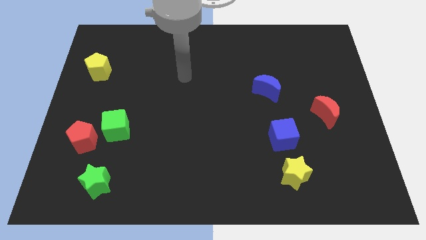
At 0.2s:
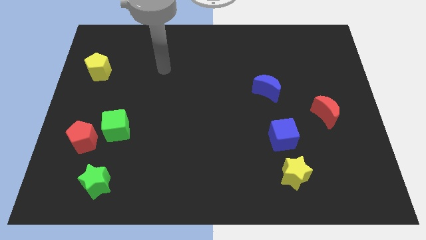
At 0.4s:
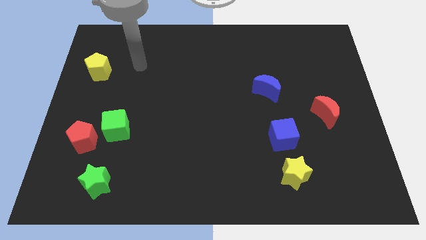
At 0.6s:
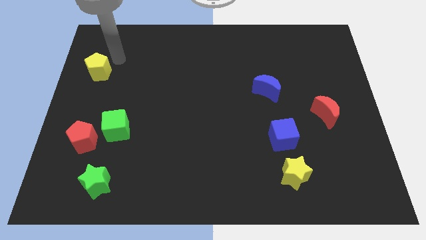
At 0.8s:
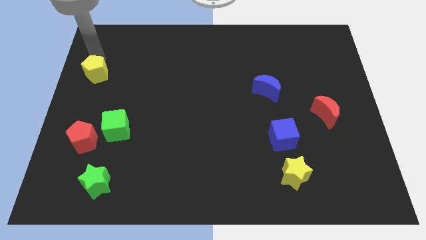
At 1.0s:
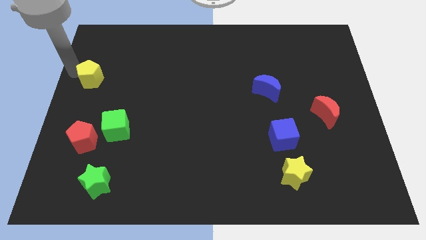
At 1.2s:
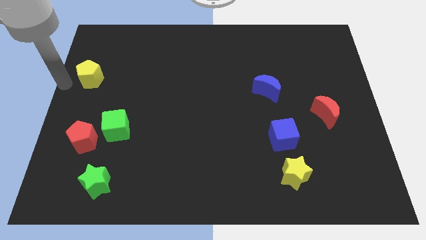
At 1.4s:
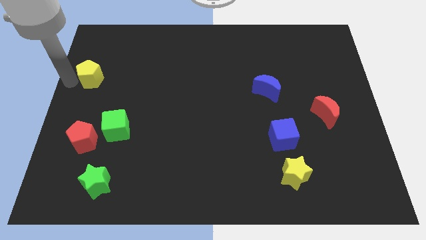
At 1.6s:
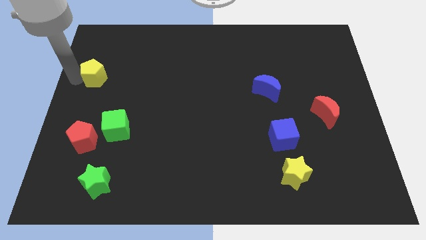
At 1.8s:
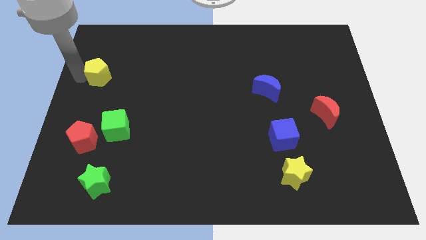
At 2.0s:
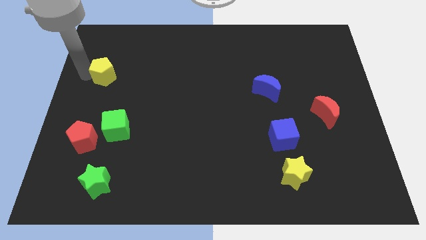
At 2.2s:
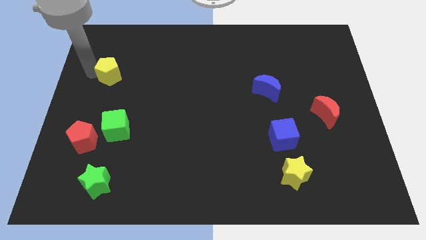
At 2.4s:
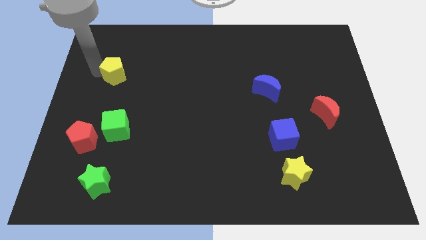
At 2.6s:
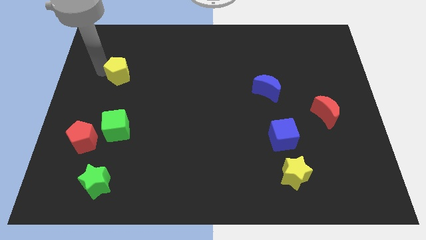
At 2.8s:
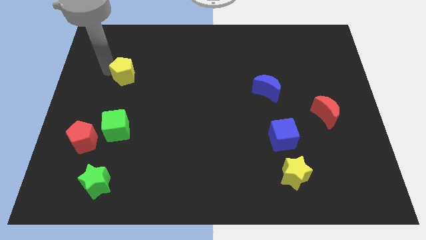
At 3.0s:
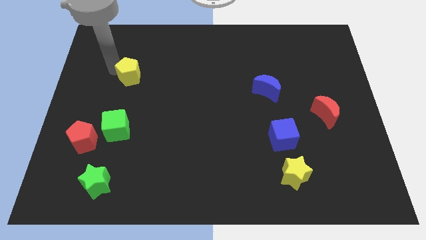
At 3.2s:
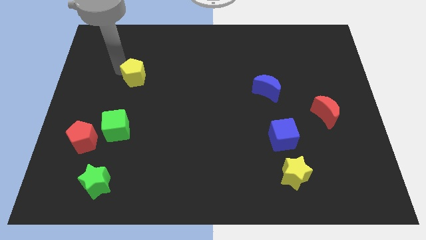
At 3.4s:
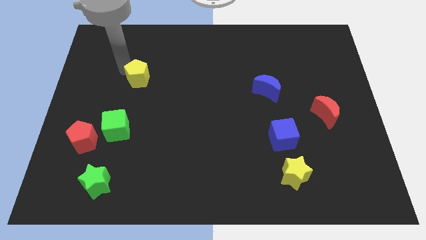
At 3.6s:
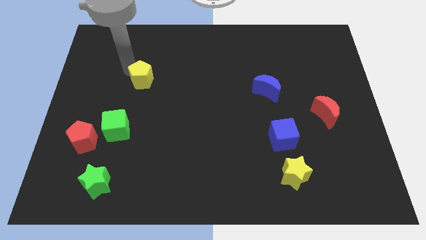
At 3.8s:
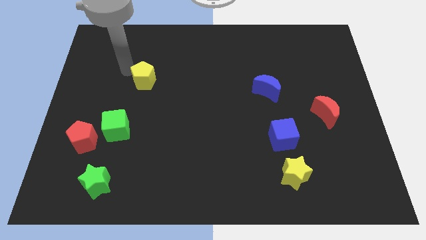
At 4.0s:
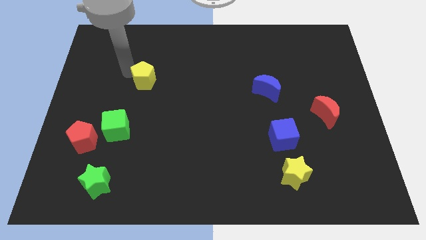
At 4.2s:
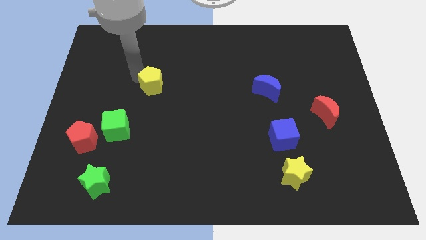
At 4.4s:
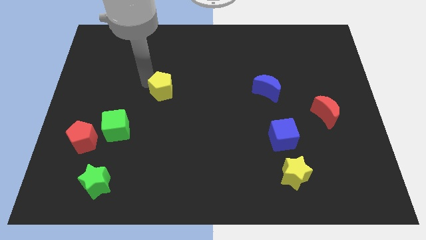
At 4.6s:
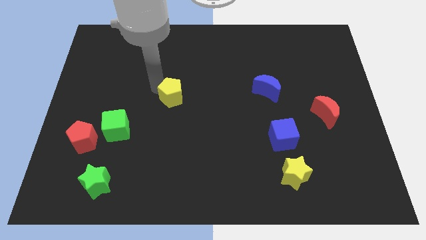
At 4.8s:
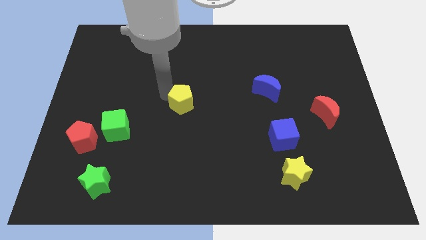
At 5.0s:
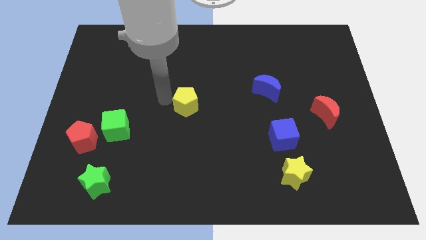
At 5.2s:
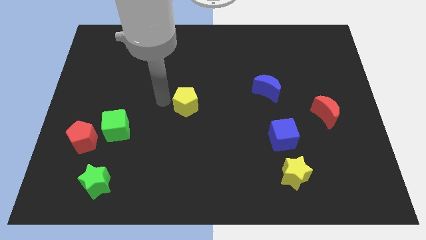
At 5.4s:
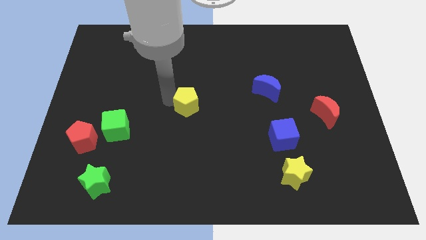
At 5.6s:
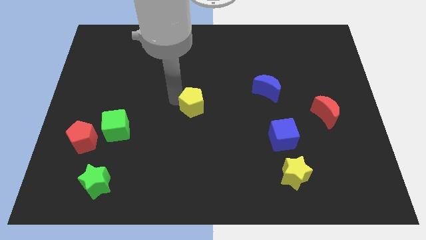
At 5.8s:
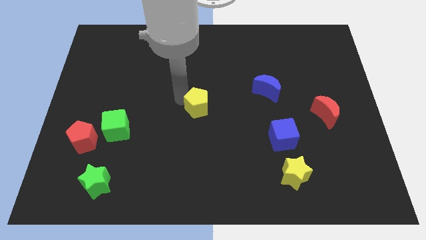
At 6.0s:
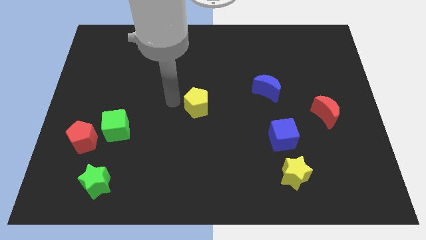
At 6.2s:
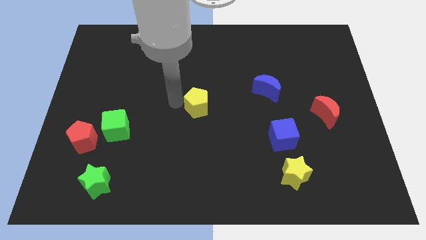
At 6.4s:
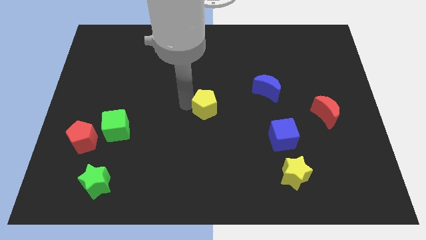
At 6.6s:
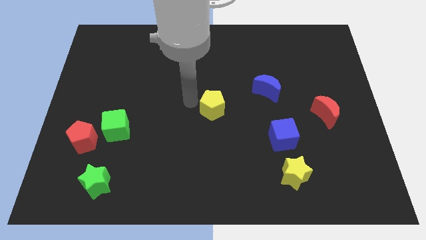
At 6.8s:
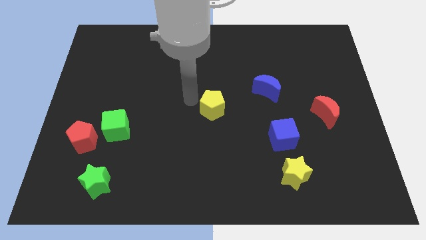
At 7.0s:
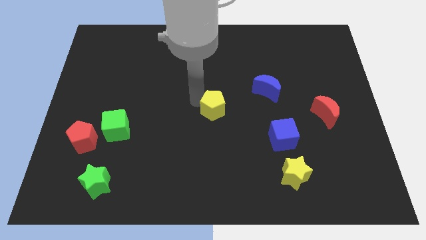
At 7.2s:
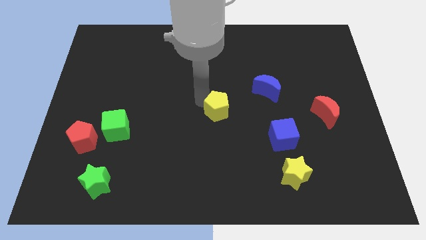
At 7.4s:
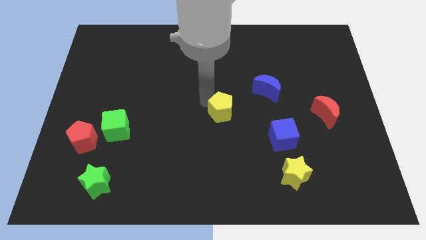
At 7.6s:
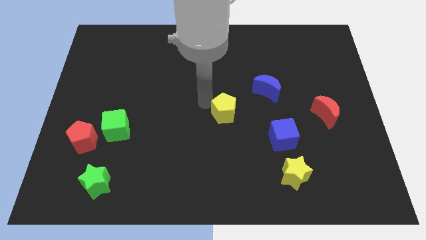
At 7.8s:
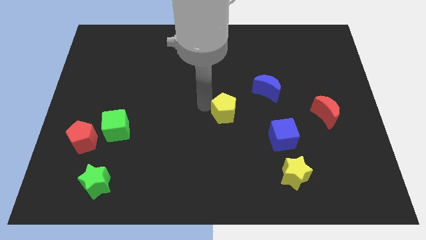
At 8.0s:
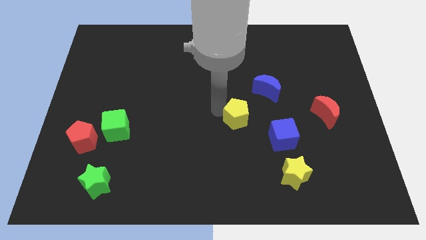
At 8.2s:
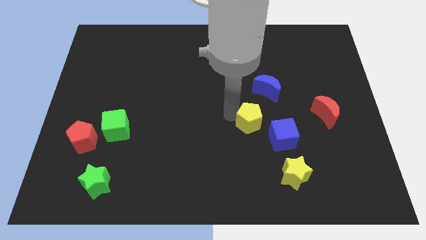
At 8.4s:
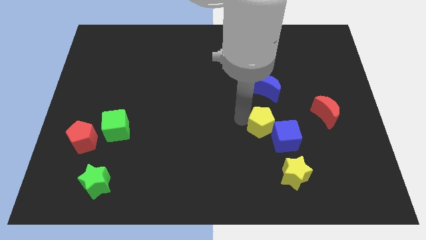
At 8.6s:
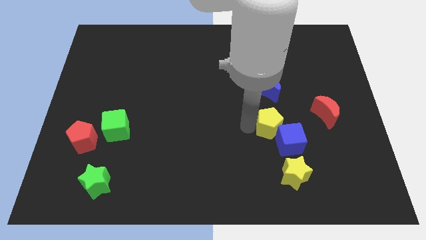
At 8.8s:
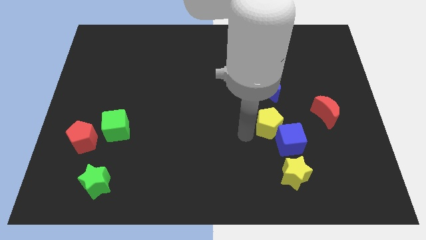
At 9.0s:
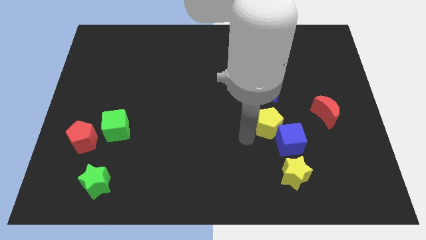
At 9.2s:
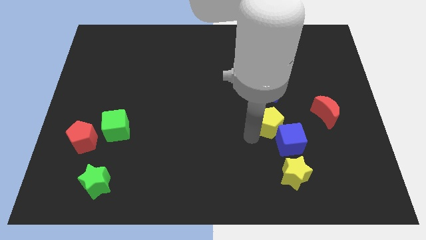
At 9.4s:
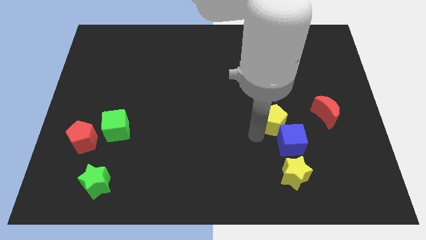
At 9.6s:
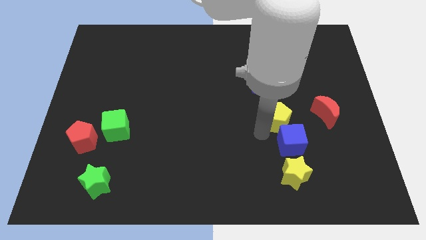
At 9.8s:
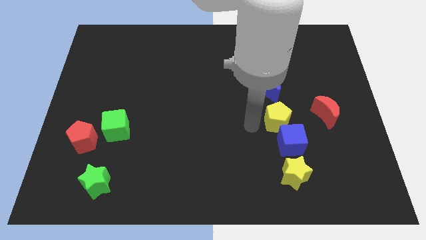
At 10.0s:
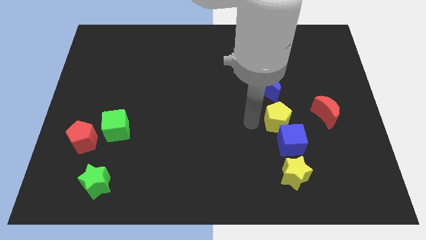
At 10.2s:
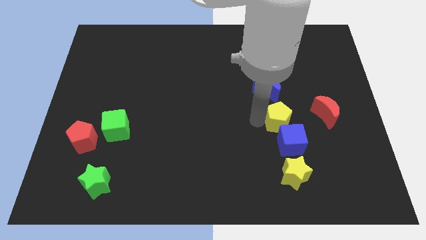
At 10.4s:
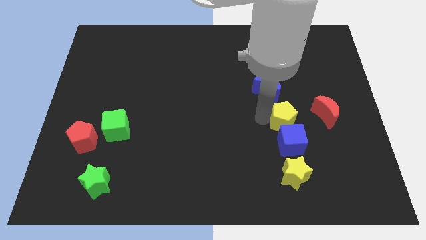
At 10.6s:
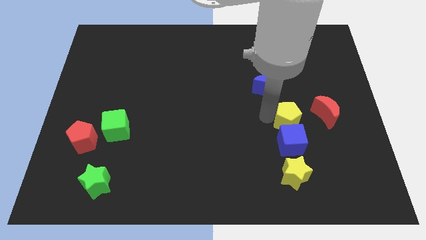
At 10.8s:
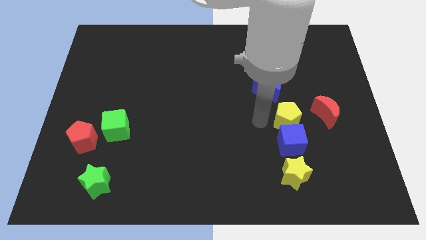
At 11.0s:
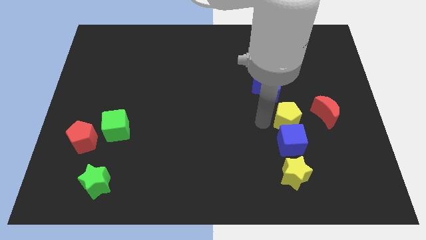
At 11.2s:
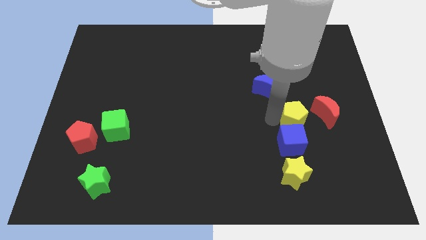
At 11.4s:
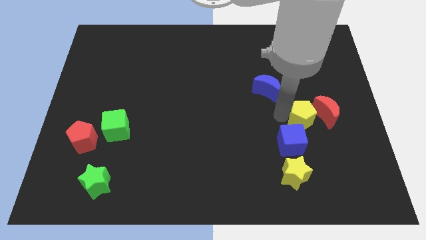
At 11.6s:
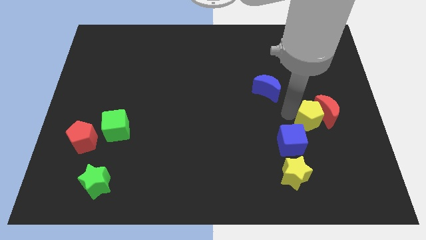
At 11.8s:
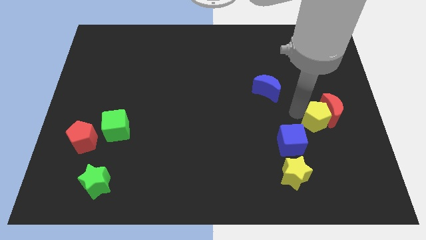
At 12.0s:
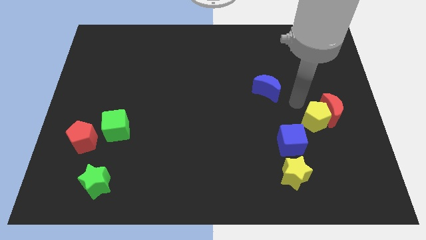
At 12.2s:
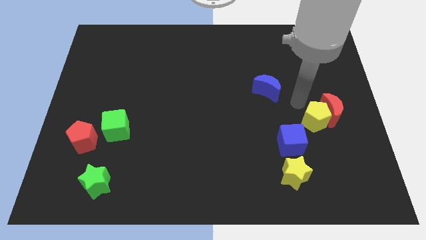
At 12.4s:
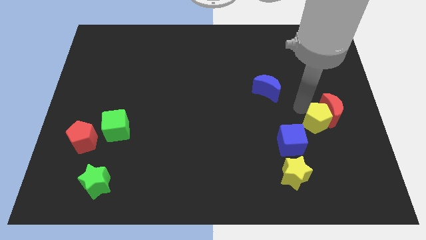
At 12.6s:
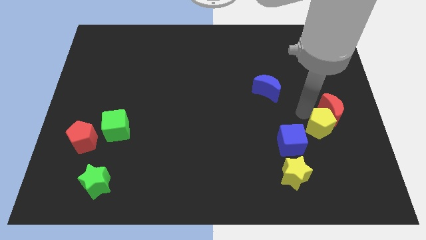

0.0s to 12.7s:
put the yellow pentagon right of the blue cube
